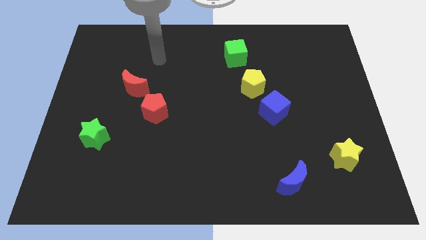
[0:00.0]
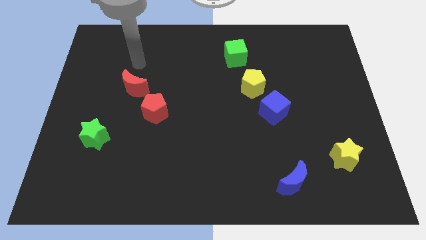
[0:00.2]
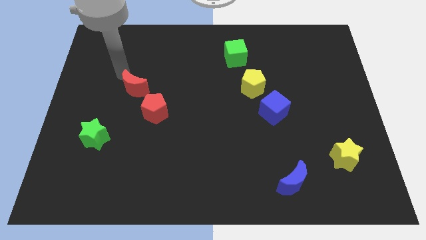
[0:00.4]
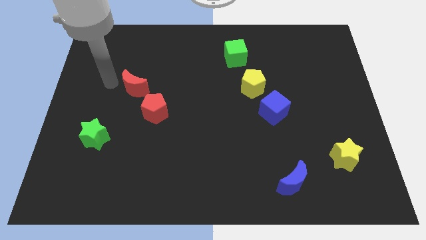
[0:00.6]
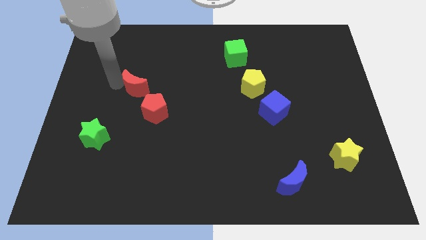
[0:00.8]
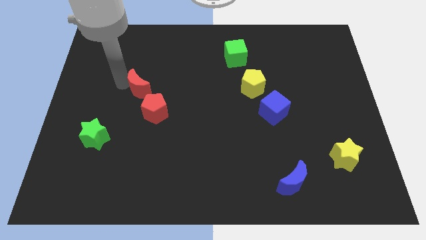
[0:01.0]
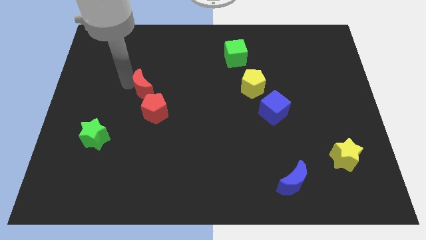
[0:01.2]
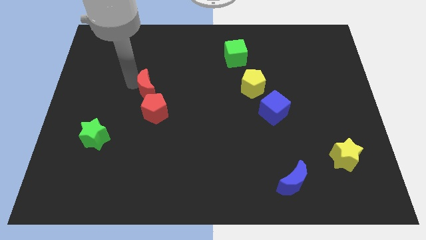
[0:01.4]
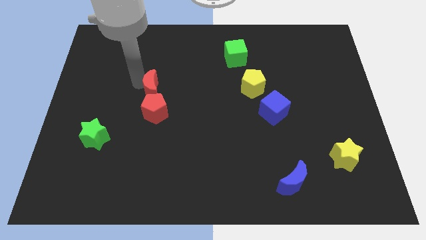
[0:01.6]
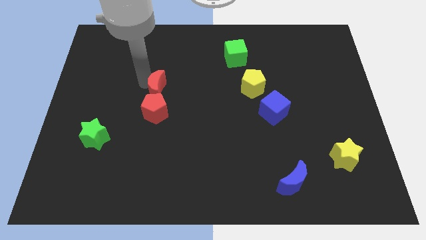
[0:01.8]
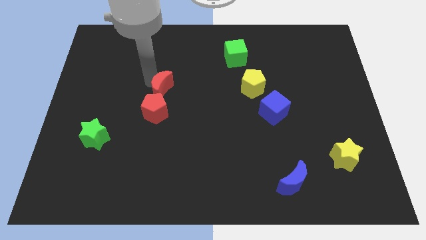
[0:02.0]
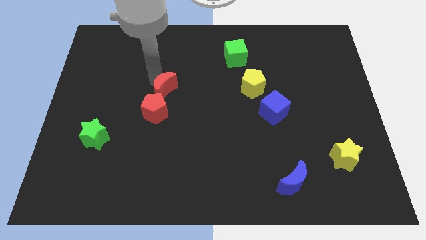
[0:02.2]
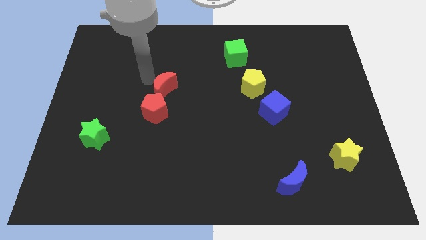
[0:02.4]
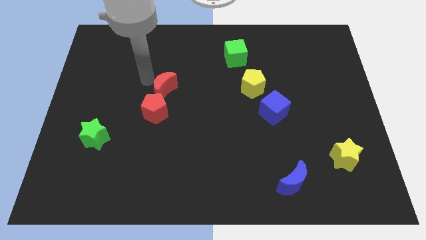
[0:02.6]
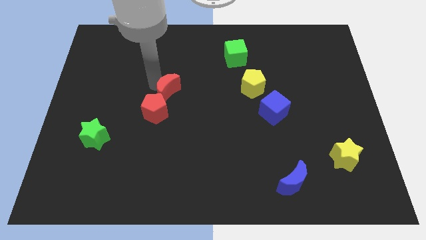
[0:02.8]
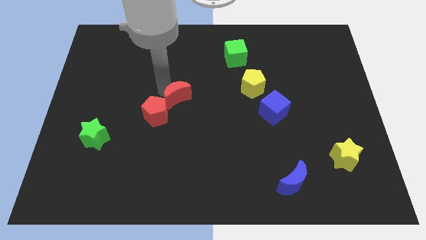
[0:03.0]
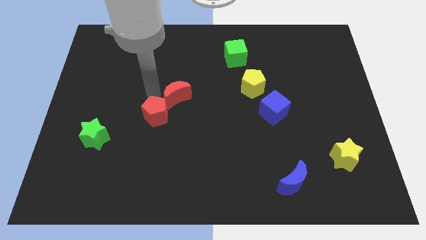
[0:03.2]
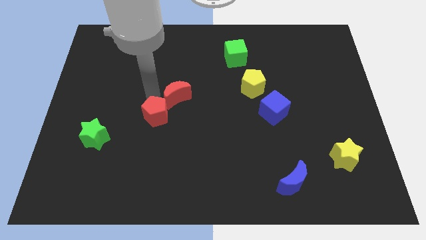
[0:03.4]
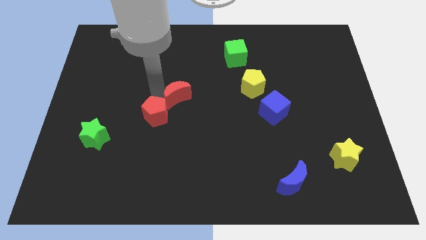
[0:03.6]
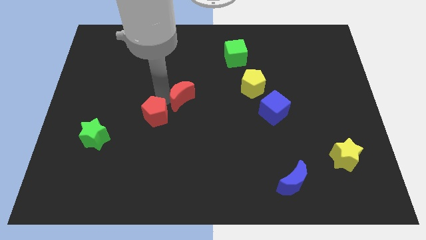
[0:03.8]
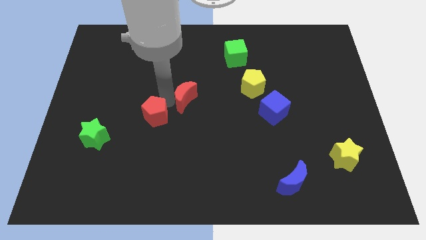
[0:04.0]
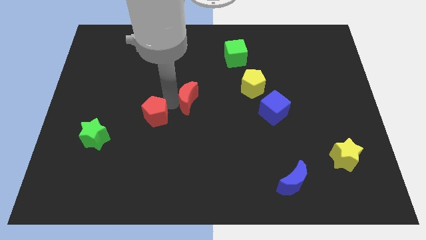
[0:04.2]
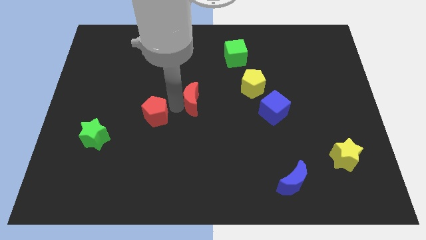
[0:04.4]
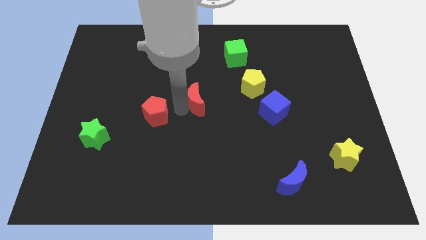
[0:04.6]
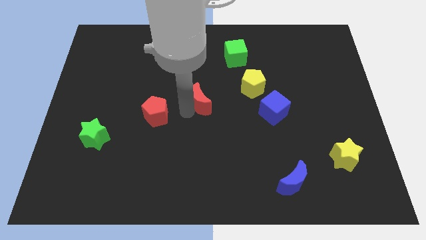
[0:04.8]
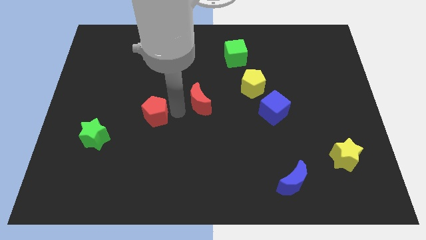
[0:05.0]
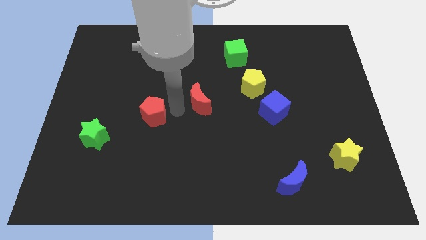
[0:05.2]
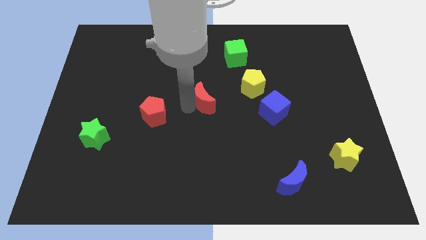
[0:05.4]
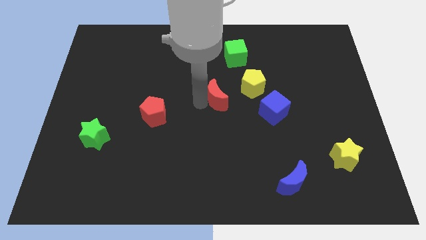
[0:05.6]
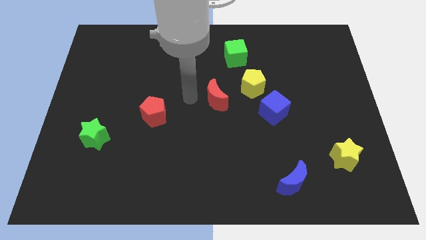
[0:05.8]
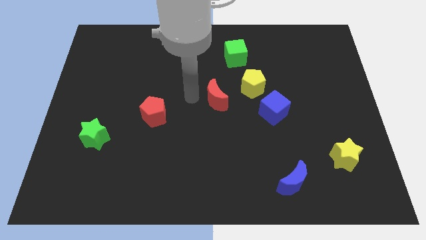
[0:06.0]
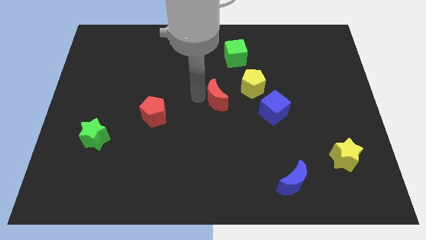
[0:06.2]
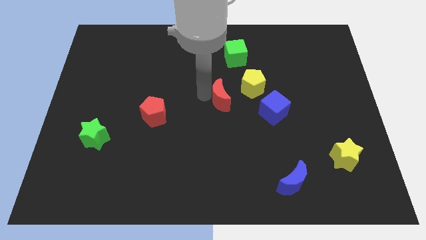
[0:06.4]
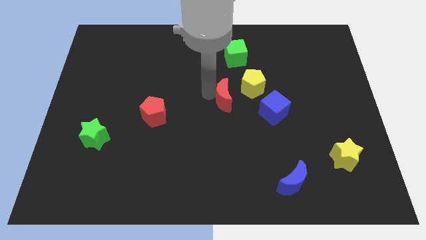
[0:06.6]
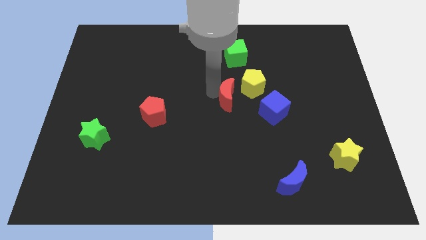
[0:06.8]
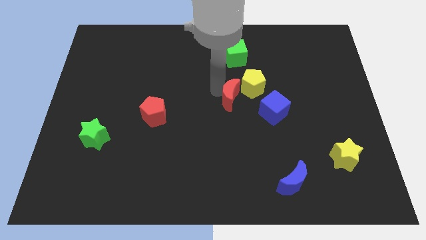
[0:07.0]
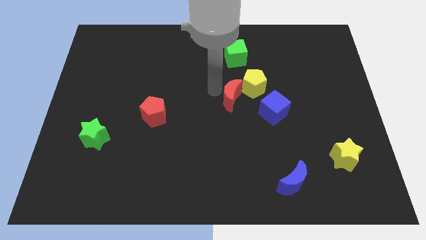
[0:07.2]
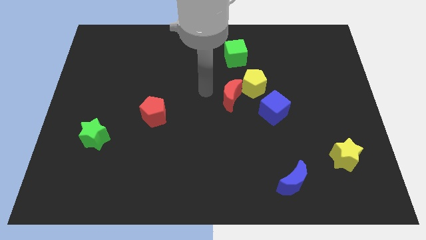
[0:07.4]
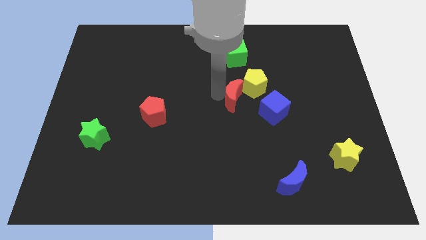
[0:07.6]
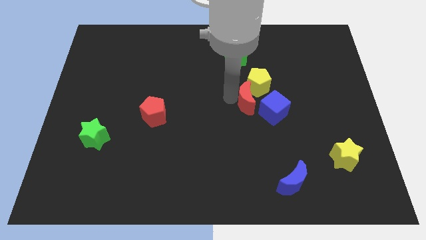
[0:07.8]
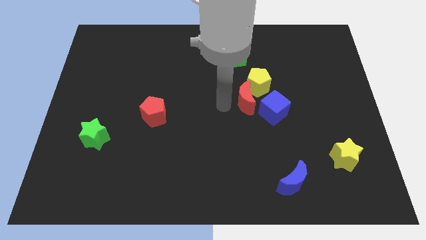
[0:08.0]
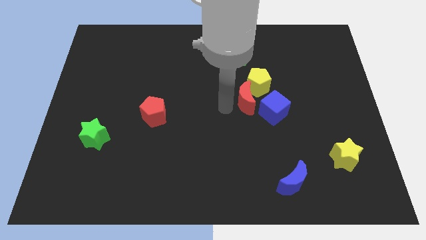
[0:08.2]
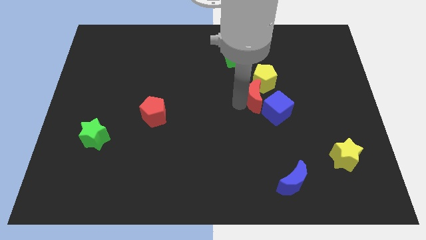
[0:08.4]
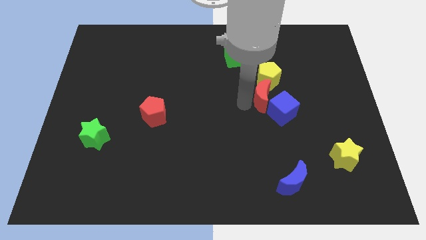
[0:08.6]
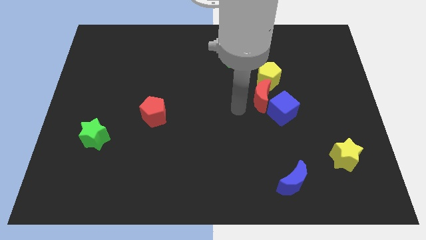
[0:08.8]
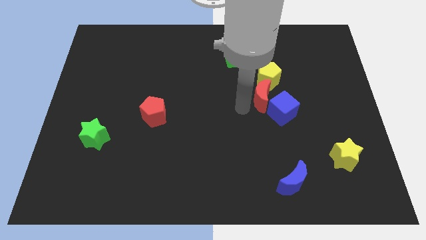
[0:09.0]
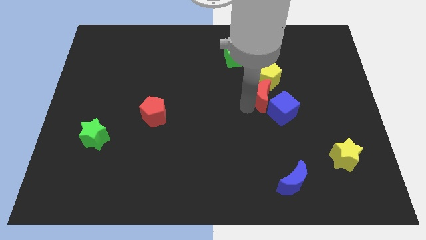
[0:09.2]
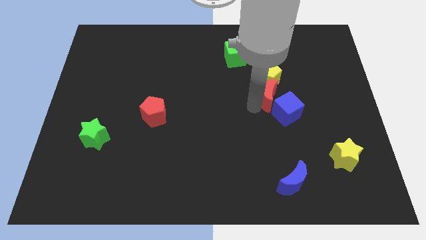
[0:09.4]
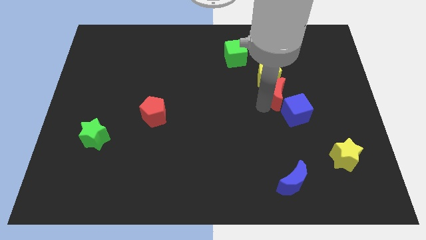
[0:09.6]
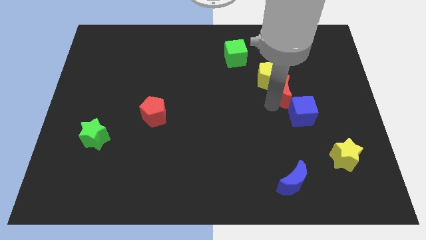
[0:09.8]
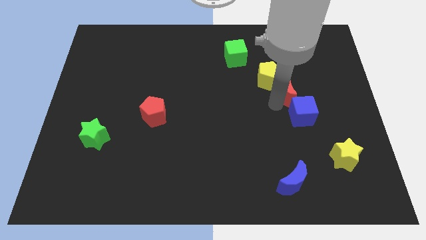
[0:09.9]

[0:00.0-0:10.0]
push the red moon right of the yellow pentagon

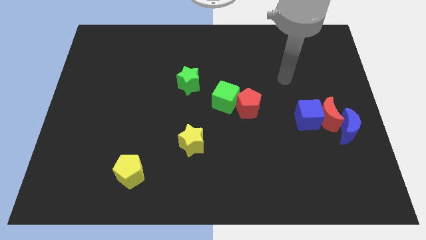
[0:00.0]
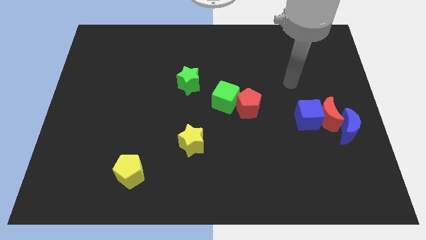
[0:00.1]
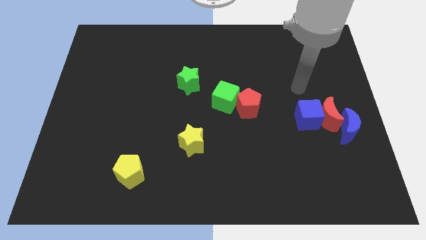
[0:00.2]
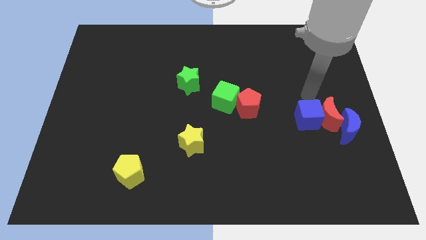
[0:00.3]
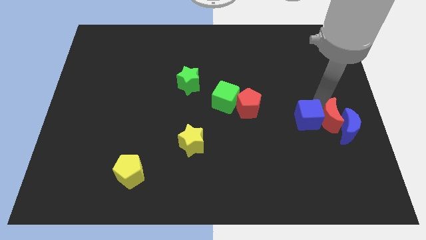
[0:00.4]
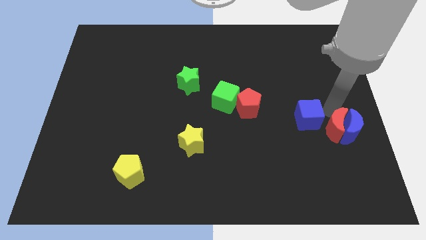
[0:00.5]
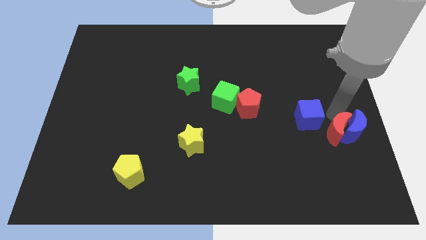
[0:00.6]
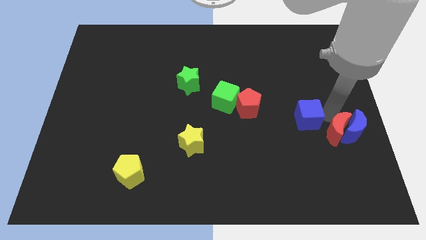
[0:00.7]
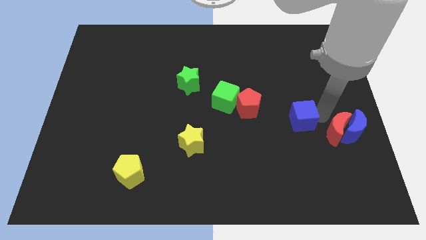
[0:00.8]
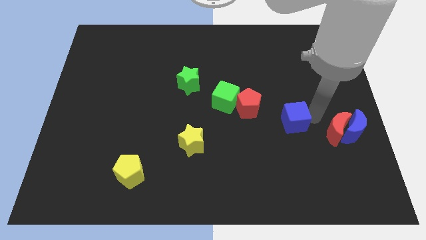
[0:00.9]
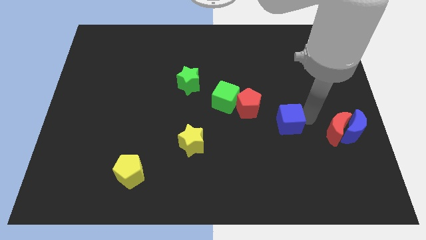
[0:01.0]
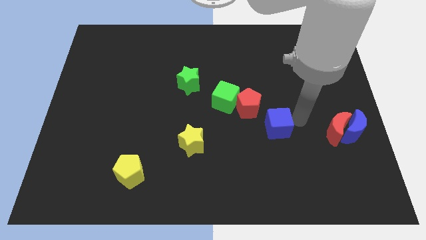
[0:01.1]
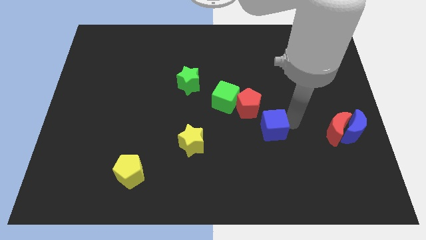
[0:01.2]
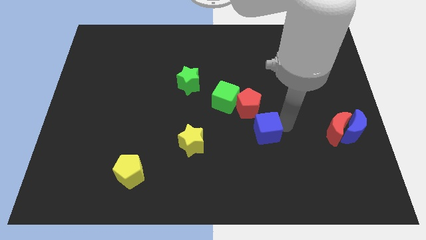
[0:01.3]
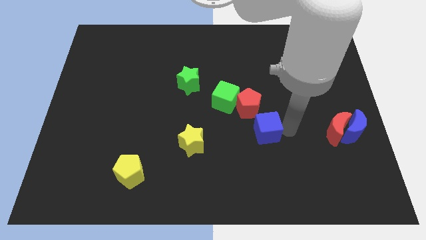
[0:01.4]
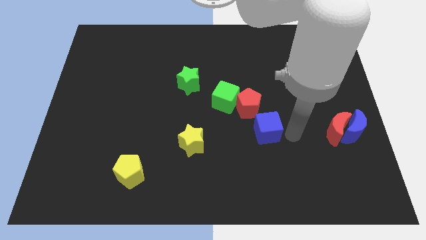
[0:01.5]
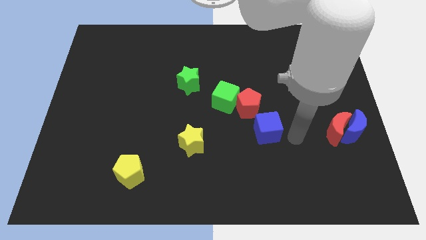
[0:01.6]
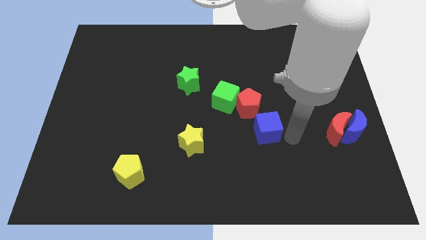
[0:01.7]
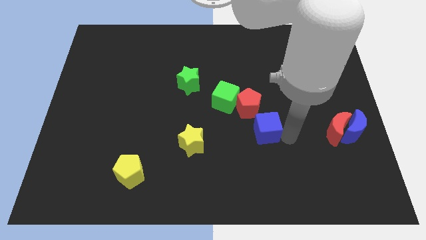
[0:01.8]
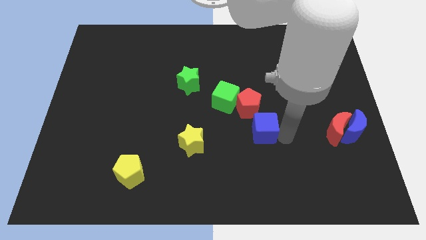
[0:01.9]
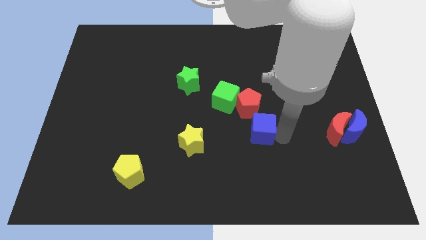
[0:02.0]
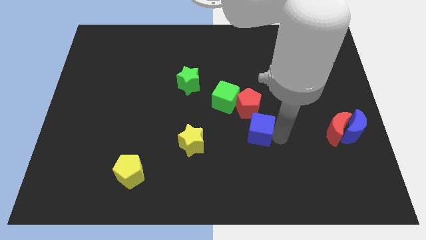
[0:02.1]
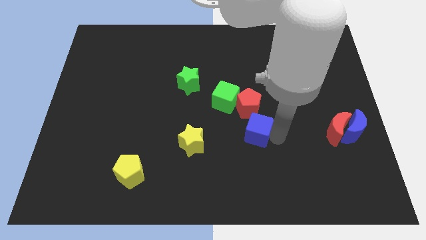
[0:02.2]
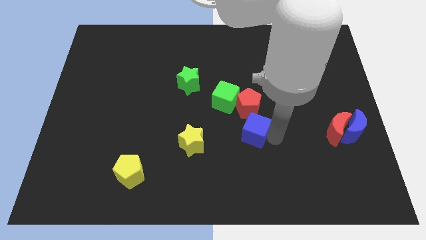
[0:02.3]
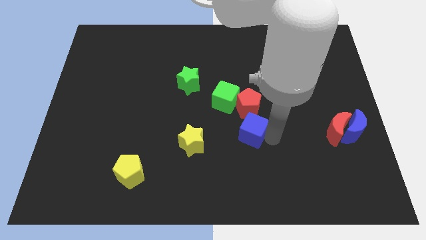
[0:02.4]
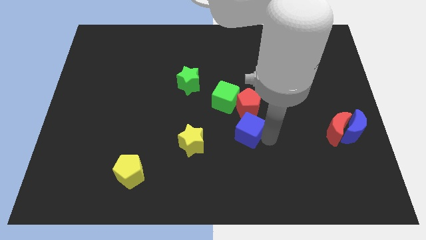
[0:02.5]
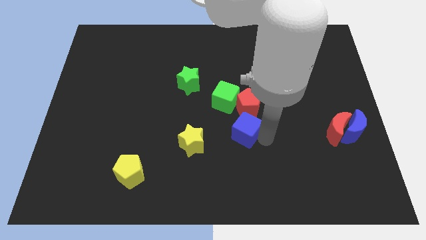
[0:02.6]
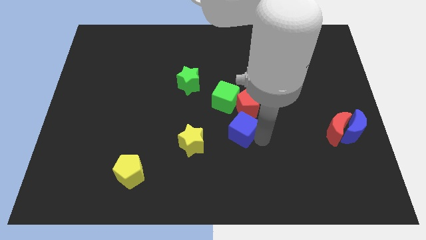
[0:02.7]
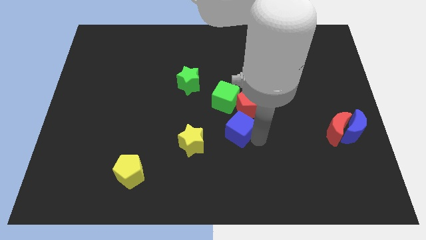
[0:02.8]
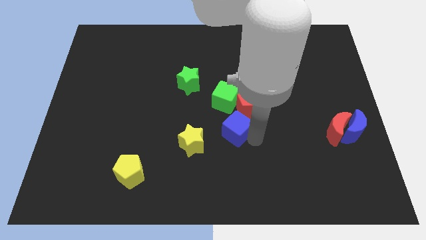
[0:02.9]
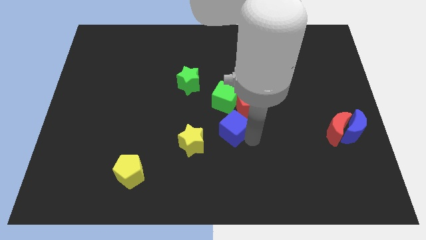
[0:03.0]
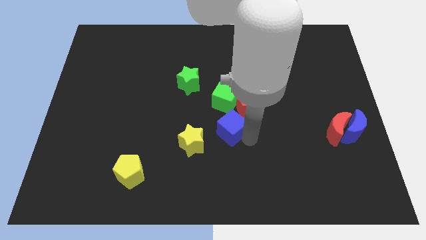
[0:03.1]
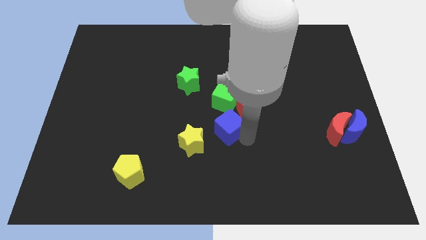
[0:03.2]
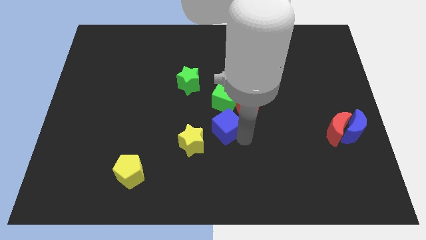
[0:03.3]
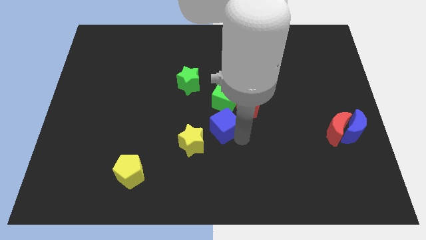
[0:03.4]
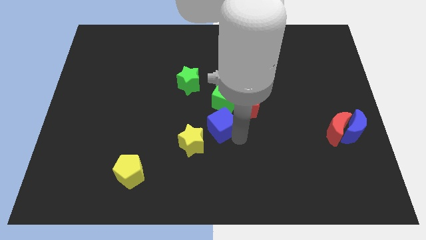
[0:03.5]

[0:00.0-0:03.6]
move the blue cube to the bottom left side of the green cube
